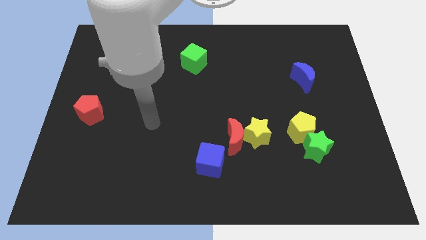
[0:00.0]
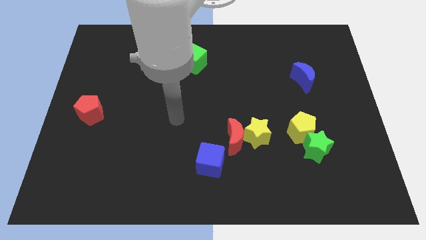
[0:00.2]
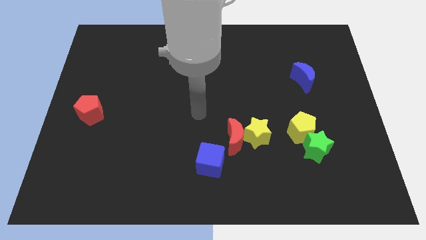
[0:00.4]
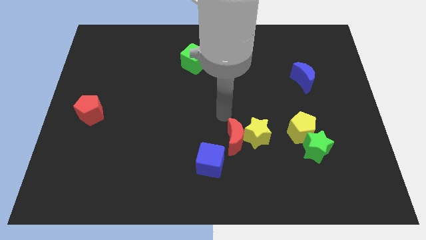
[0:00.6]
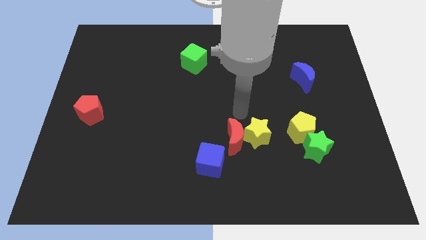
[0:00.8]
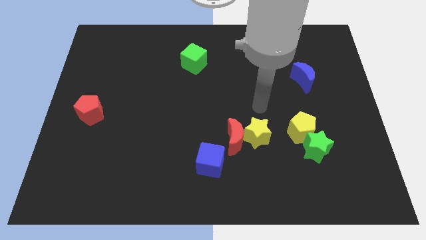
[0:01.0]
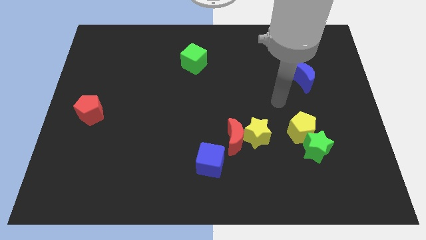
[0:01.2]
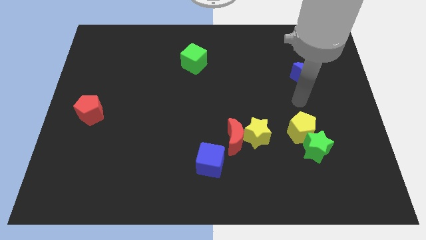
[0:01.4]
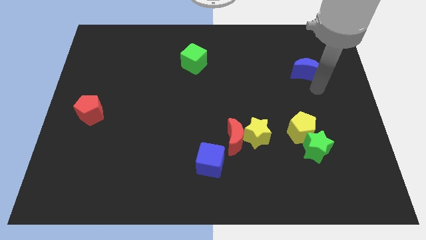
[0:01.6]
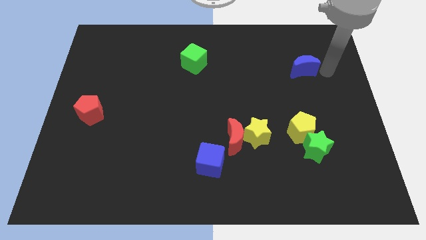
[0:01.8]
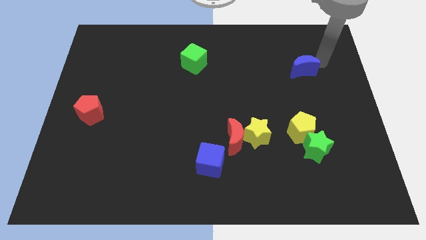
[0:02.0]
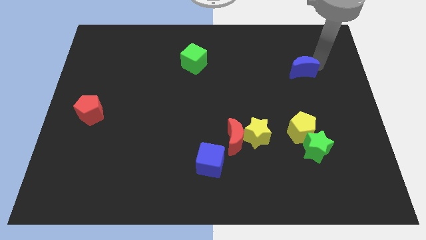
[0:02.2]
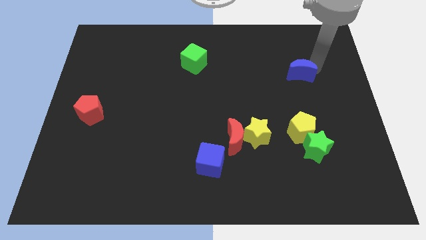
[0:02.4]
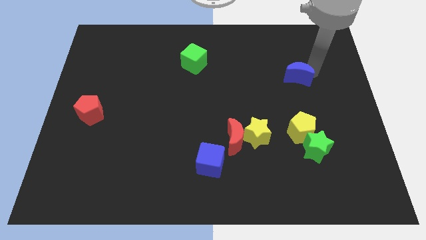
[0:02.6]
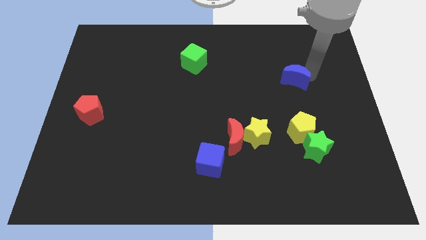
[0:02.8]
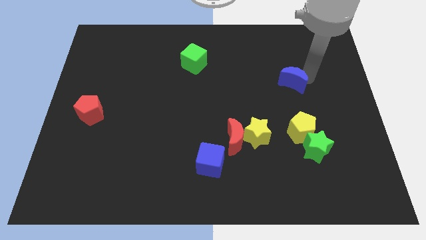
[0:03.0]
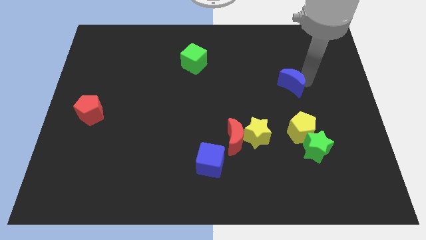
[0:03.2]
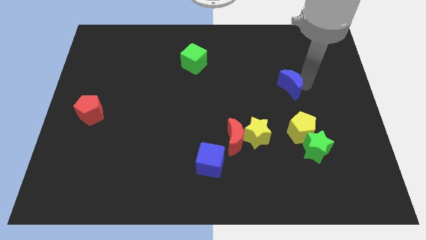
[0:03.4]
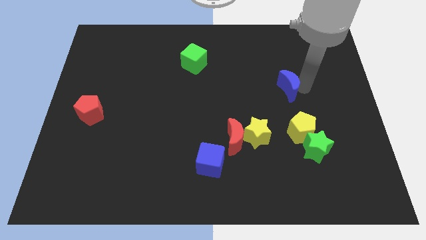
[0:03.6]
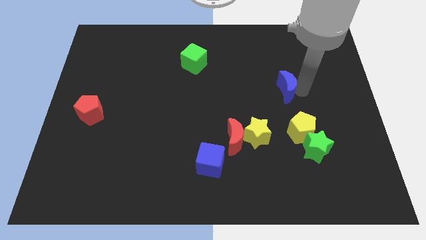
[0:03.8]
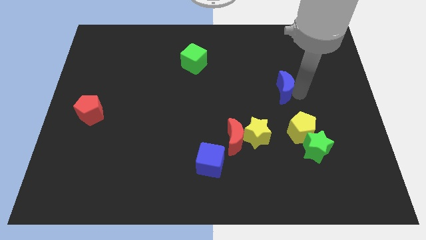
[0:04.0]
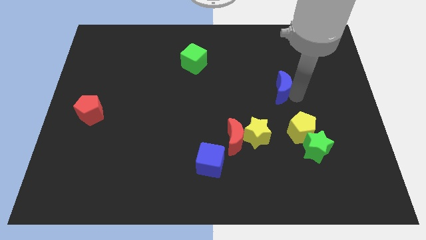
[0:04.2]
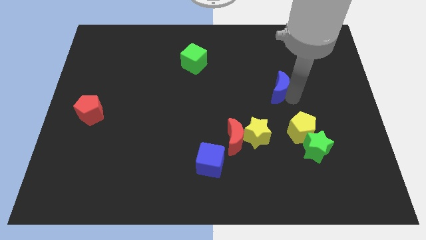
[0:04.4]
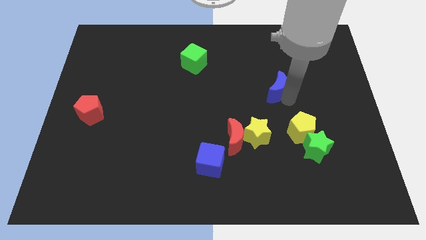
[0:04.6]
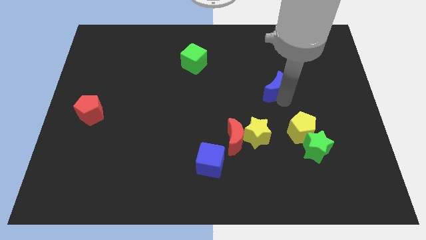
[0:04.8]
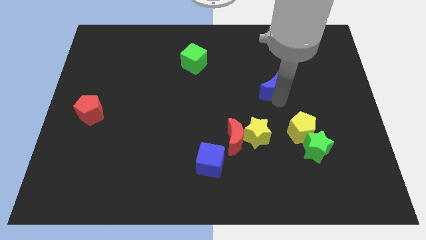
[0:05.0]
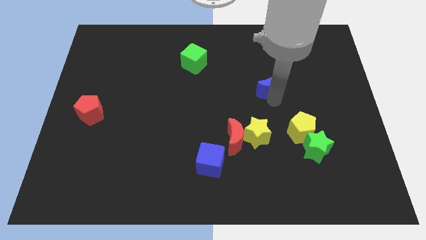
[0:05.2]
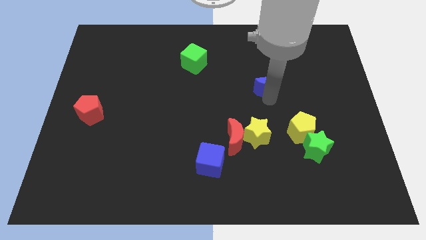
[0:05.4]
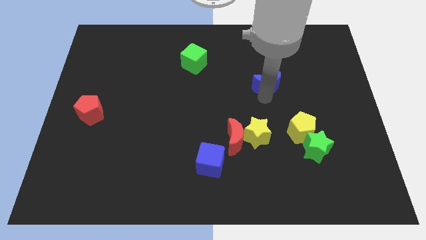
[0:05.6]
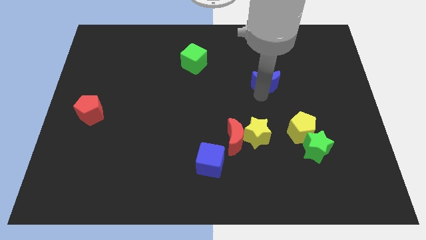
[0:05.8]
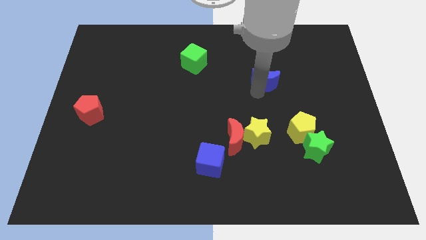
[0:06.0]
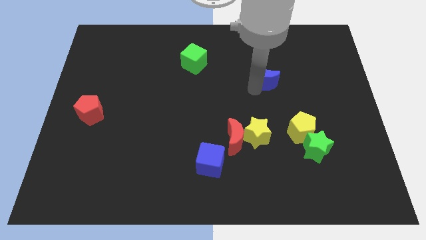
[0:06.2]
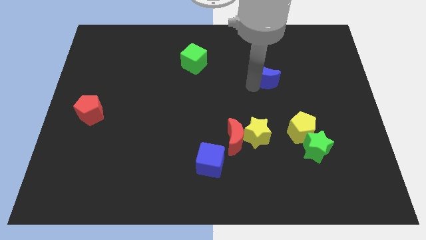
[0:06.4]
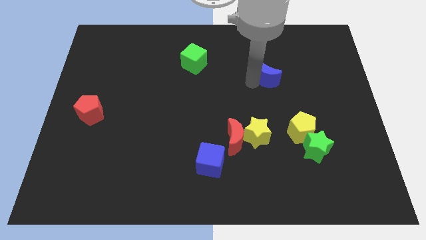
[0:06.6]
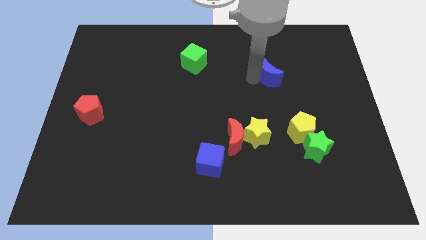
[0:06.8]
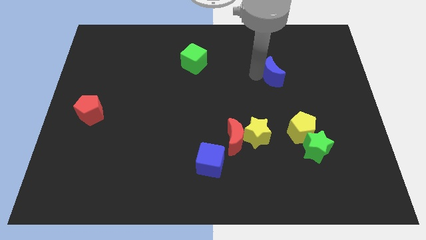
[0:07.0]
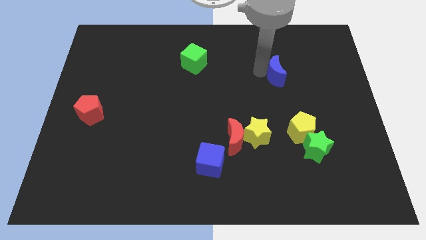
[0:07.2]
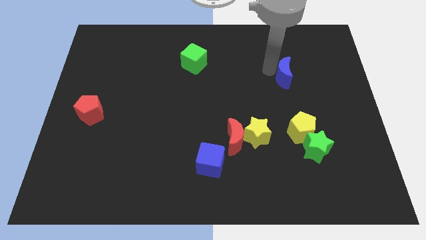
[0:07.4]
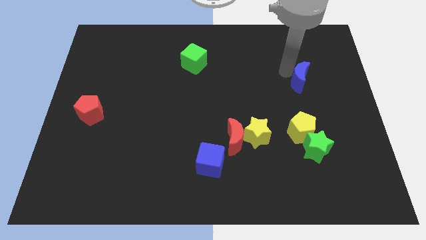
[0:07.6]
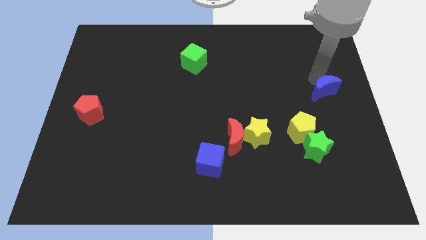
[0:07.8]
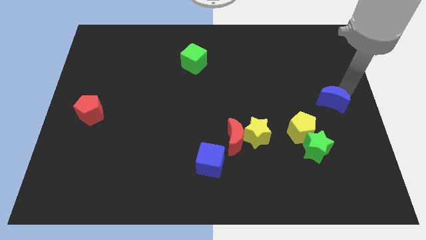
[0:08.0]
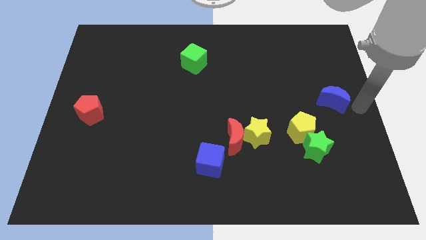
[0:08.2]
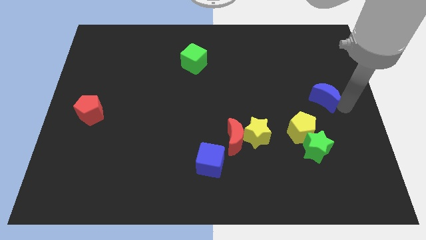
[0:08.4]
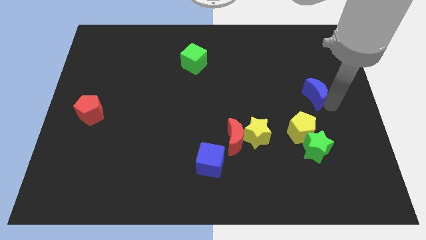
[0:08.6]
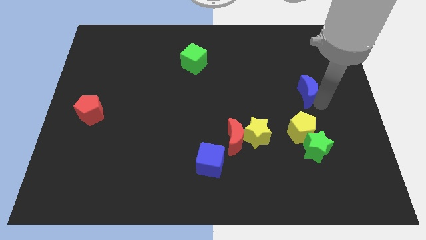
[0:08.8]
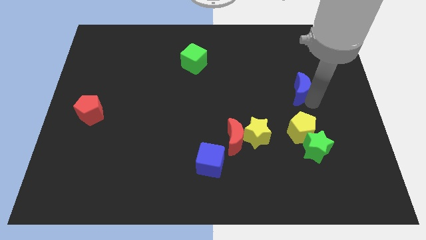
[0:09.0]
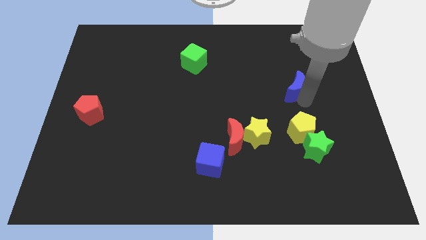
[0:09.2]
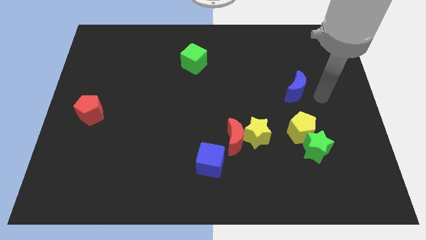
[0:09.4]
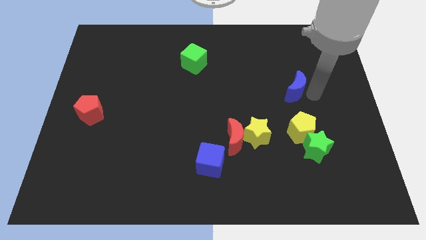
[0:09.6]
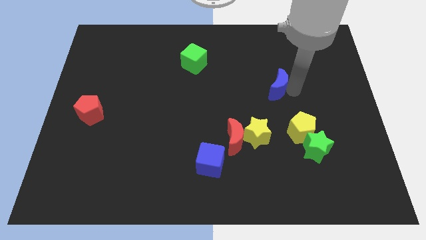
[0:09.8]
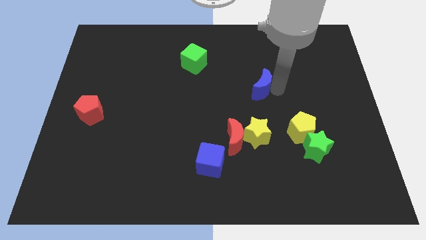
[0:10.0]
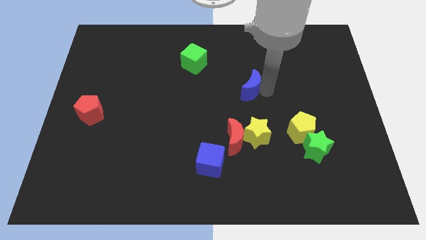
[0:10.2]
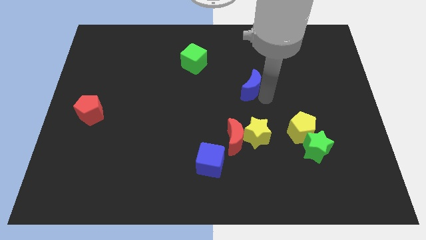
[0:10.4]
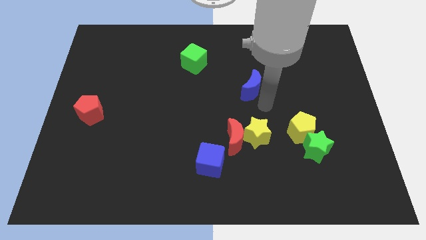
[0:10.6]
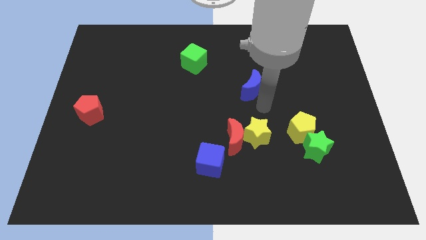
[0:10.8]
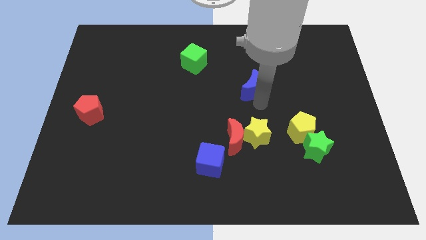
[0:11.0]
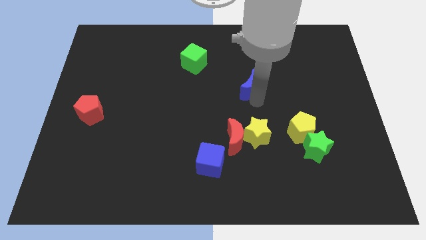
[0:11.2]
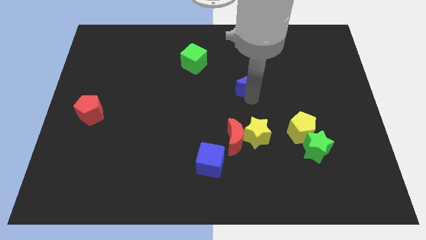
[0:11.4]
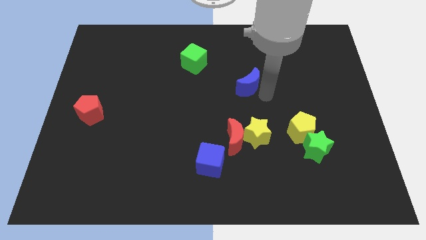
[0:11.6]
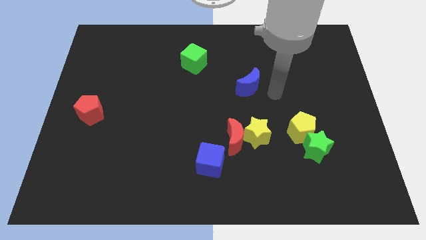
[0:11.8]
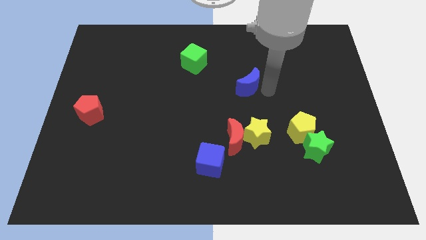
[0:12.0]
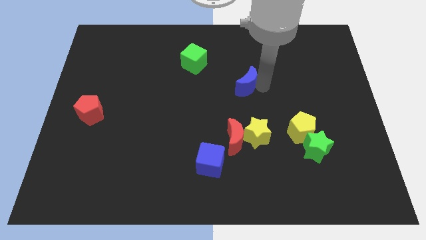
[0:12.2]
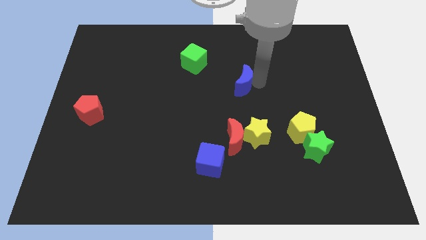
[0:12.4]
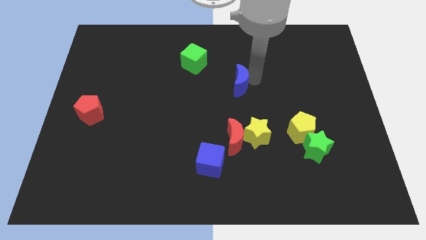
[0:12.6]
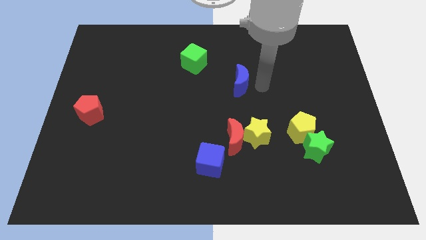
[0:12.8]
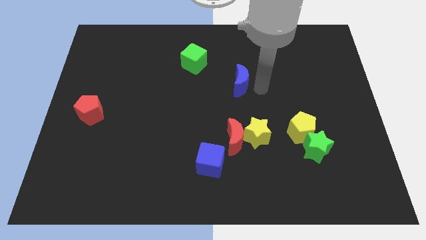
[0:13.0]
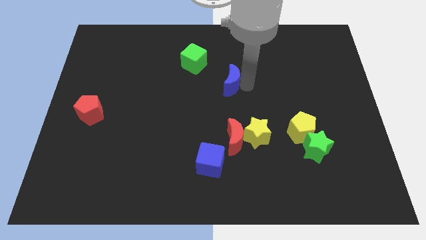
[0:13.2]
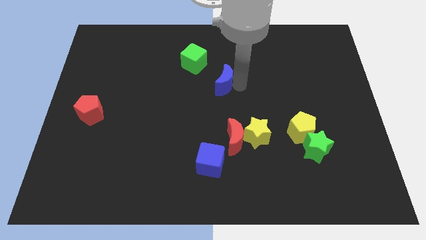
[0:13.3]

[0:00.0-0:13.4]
move the blue moon to the left

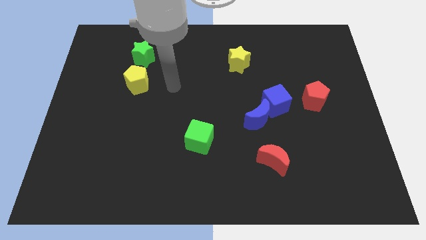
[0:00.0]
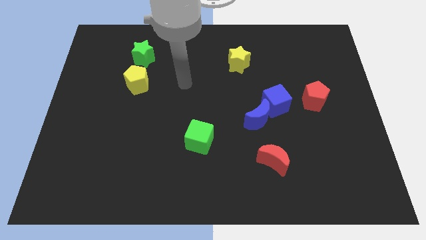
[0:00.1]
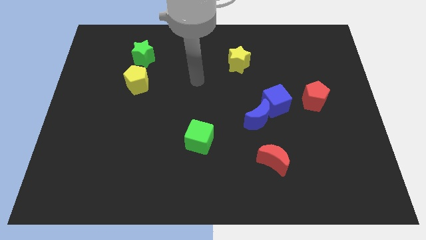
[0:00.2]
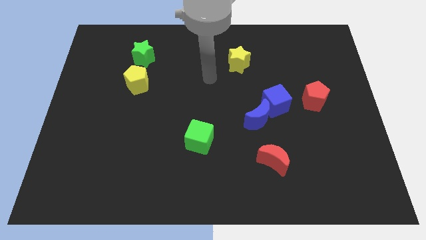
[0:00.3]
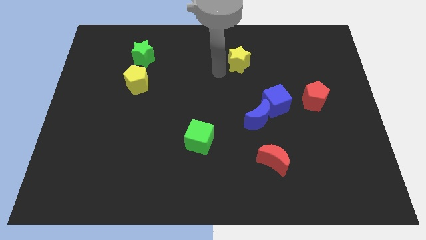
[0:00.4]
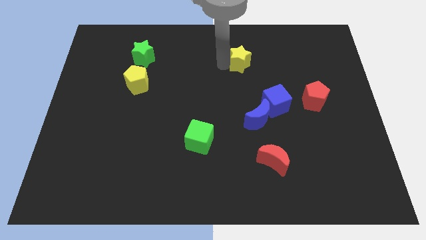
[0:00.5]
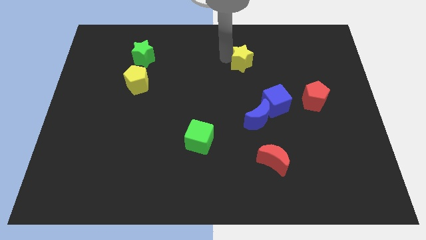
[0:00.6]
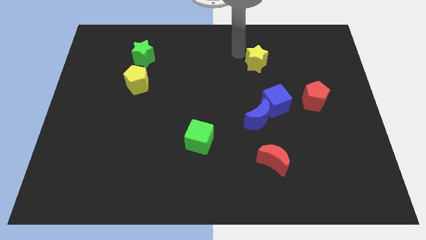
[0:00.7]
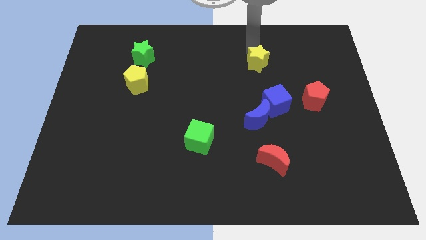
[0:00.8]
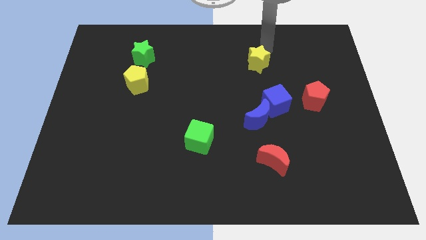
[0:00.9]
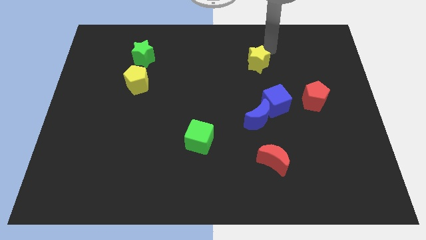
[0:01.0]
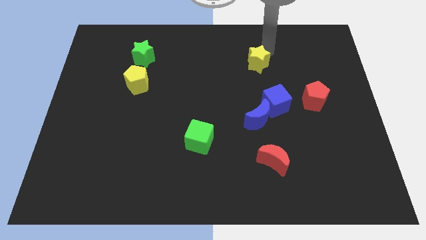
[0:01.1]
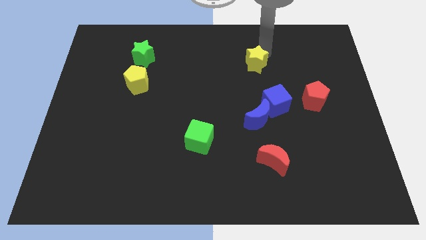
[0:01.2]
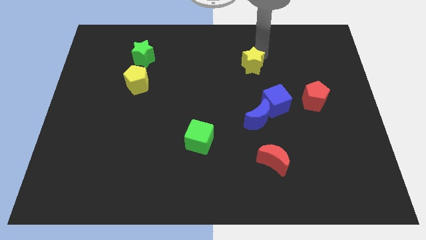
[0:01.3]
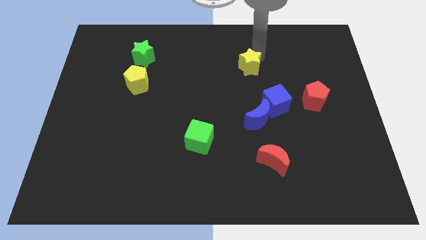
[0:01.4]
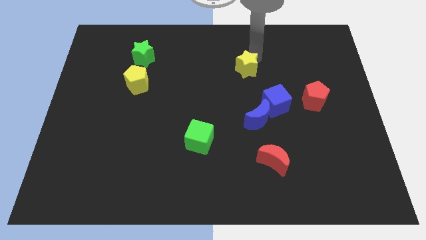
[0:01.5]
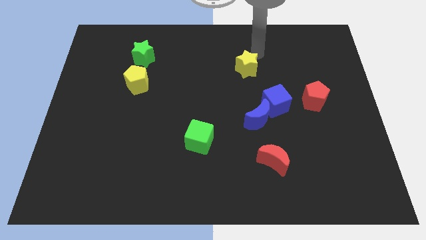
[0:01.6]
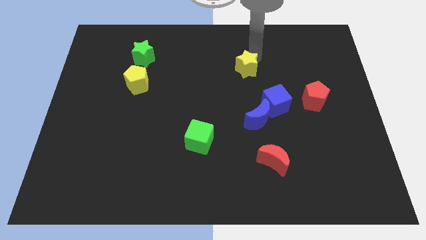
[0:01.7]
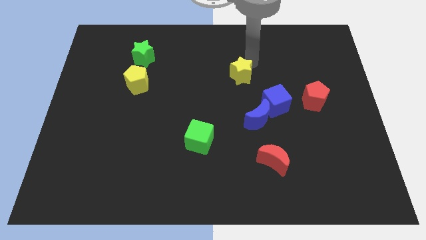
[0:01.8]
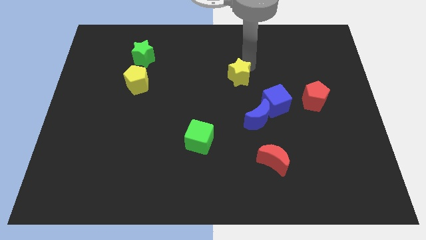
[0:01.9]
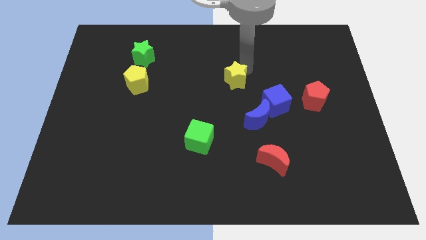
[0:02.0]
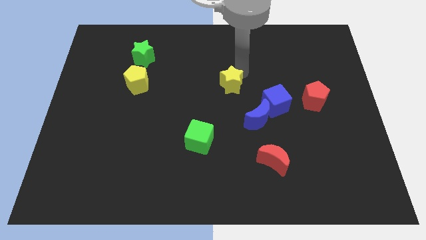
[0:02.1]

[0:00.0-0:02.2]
slightly move the yellow star down
